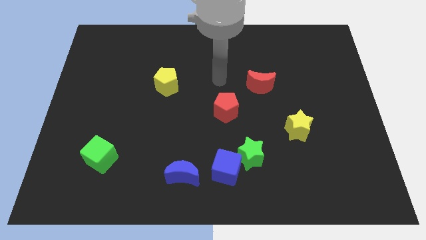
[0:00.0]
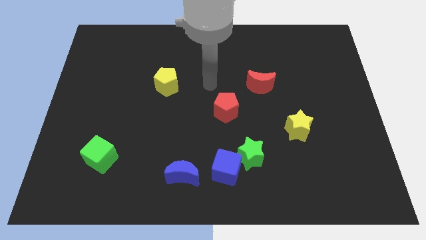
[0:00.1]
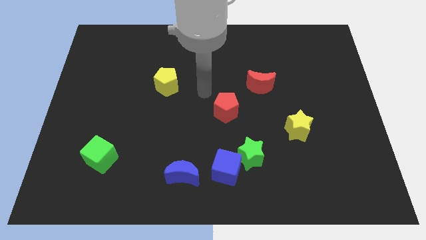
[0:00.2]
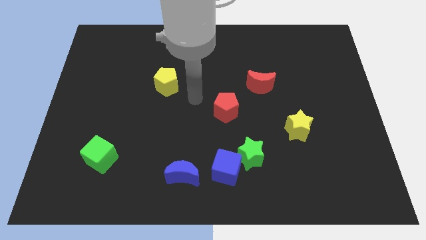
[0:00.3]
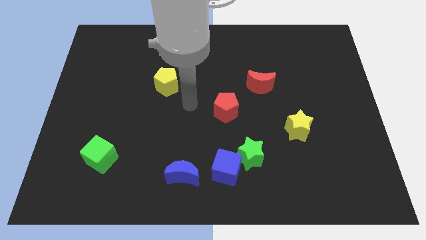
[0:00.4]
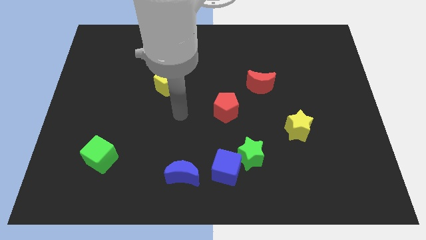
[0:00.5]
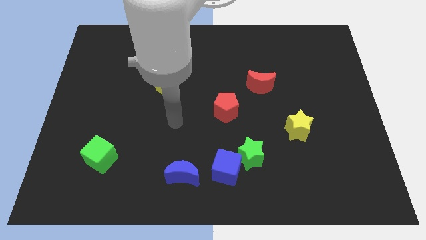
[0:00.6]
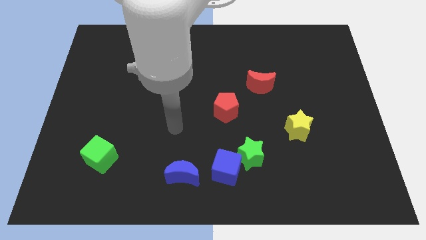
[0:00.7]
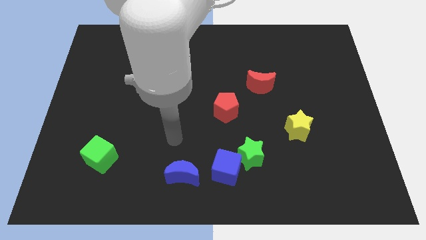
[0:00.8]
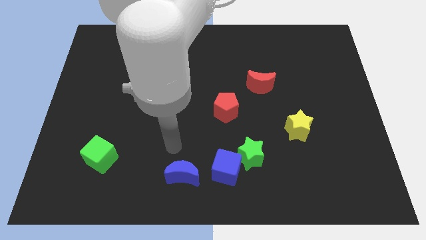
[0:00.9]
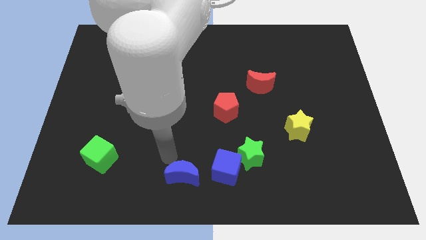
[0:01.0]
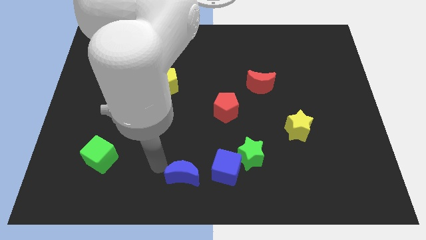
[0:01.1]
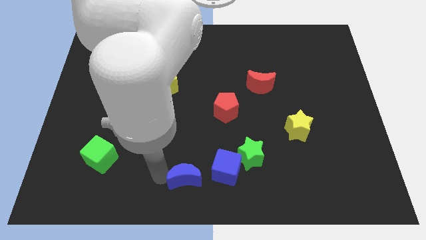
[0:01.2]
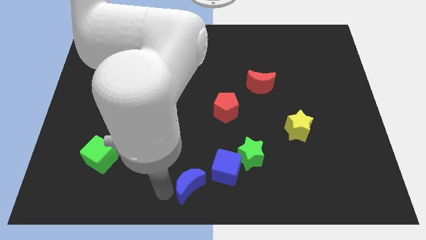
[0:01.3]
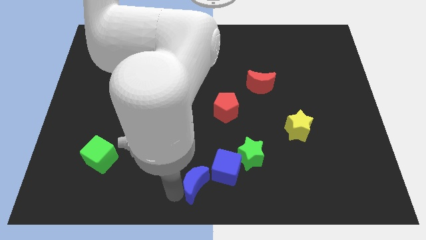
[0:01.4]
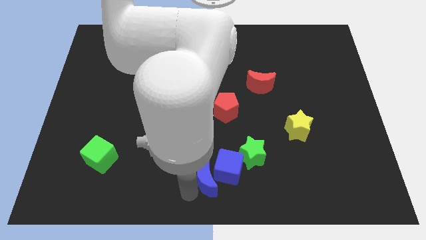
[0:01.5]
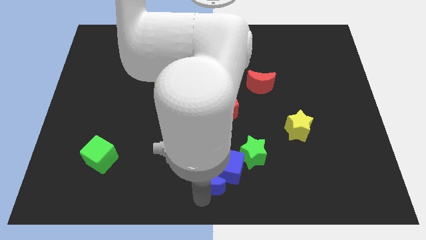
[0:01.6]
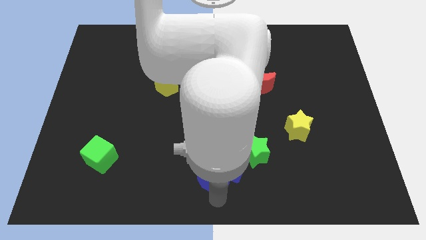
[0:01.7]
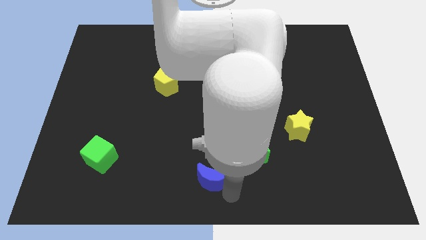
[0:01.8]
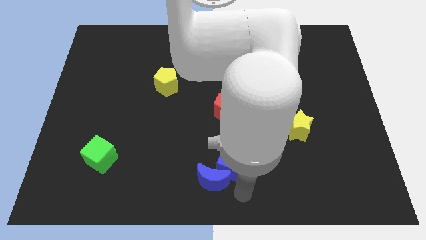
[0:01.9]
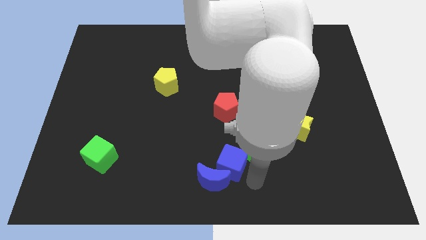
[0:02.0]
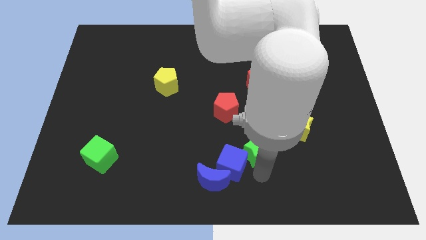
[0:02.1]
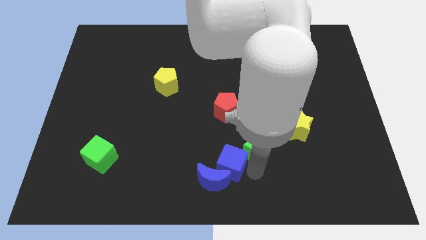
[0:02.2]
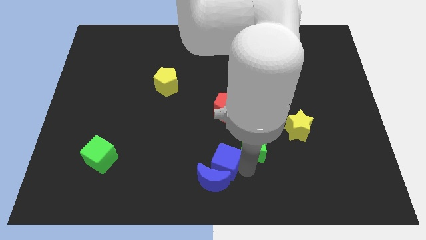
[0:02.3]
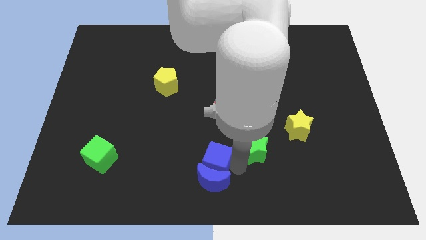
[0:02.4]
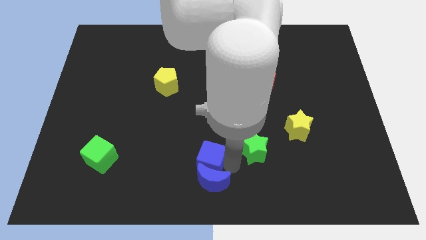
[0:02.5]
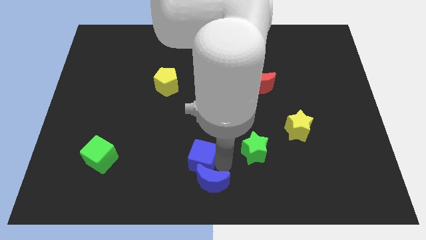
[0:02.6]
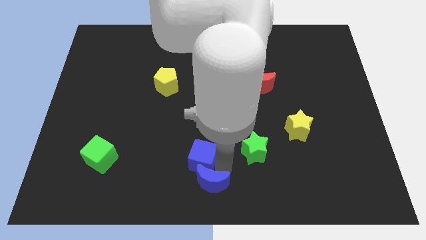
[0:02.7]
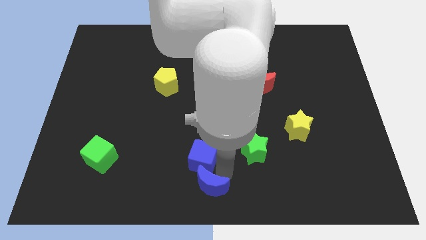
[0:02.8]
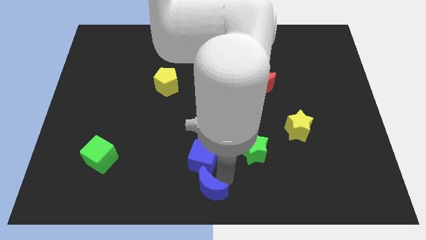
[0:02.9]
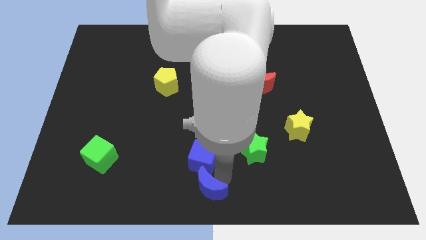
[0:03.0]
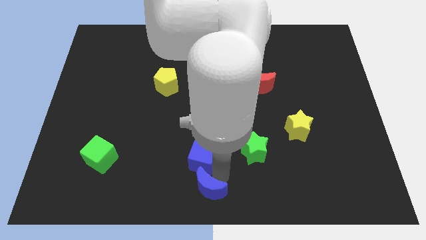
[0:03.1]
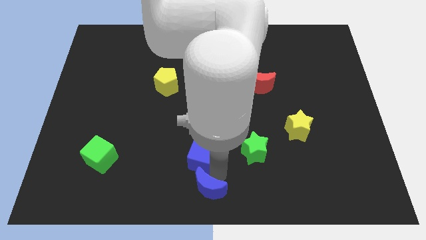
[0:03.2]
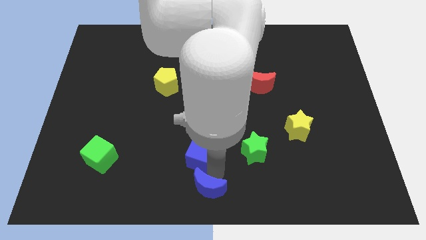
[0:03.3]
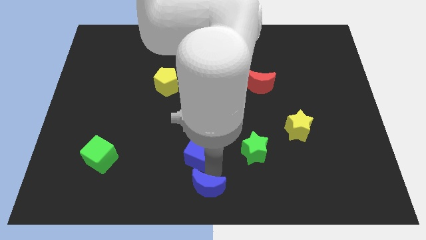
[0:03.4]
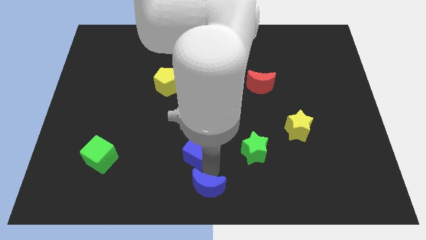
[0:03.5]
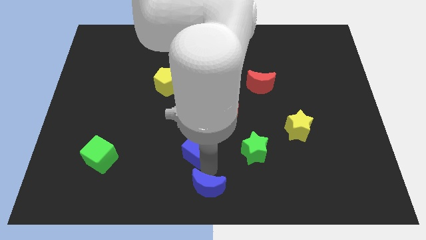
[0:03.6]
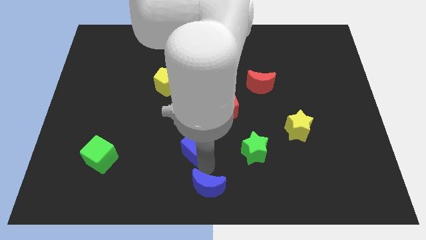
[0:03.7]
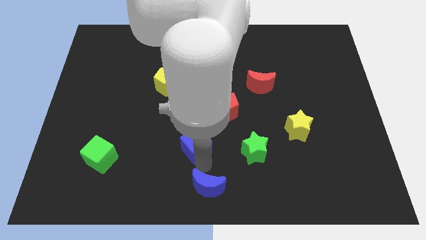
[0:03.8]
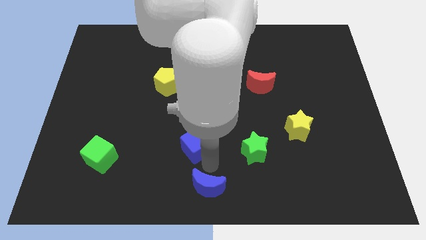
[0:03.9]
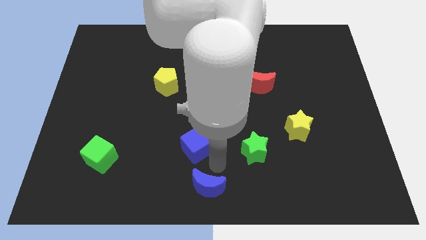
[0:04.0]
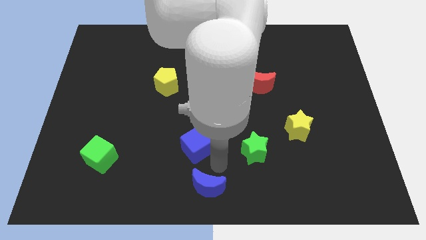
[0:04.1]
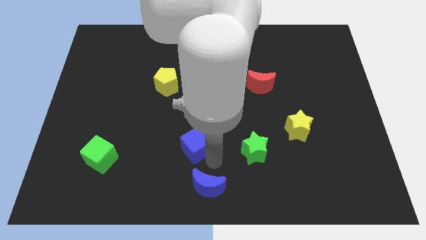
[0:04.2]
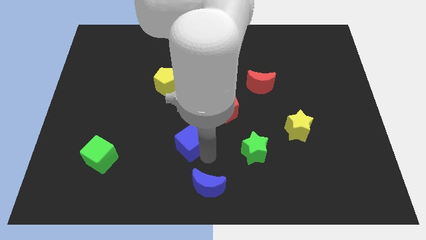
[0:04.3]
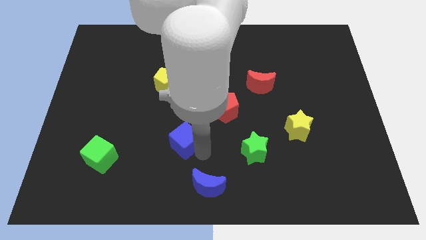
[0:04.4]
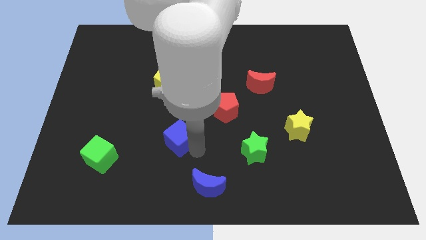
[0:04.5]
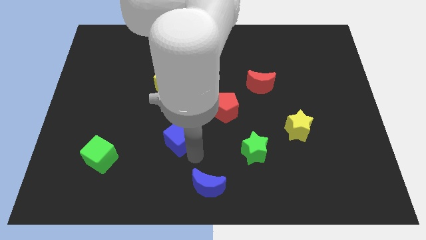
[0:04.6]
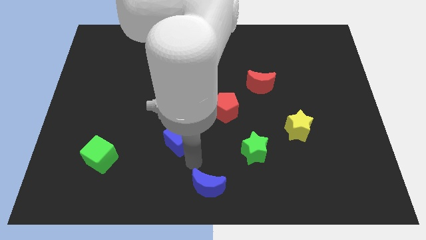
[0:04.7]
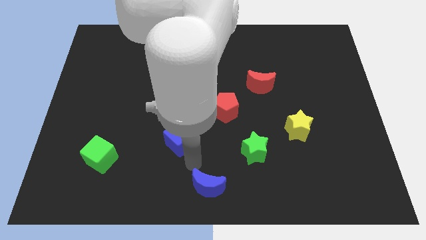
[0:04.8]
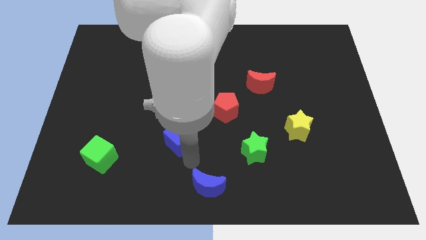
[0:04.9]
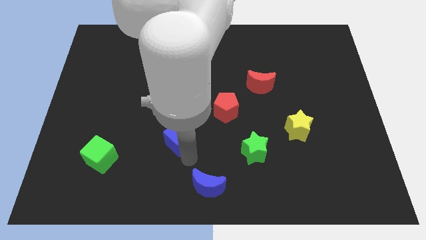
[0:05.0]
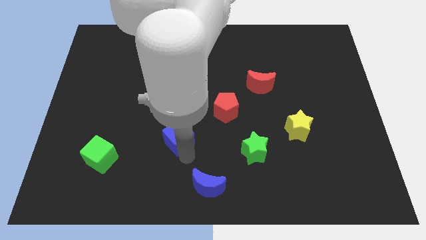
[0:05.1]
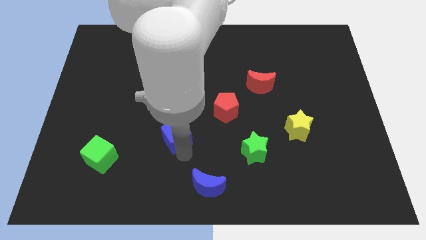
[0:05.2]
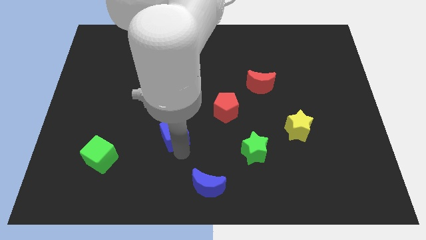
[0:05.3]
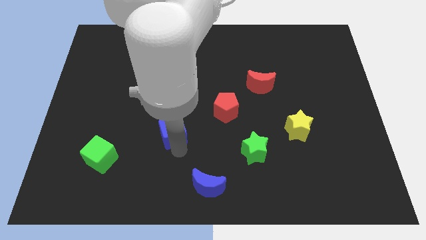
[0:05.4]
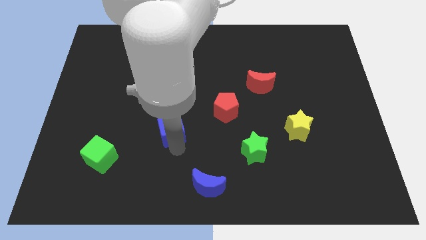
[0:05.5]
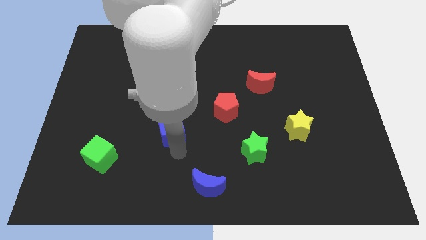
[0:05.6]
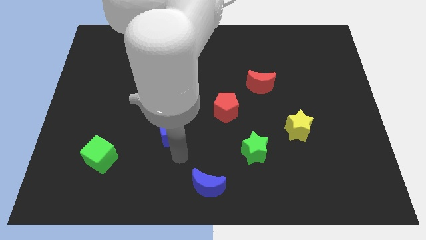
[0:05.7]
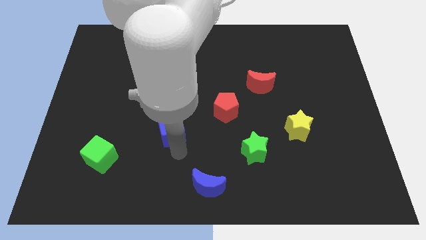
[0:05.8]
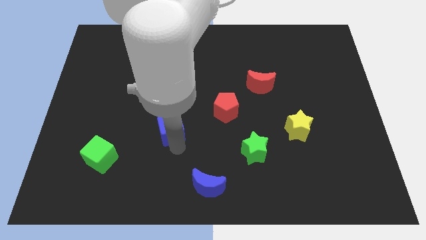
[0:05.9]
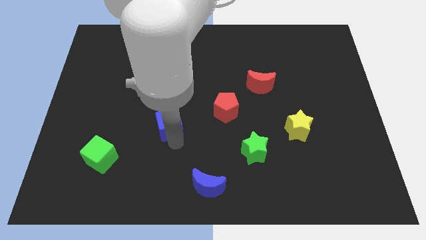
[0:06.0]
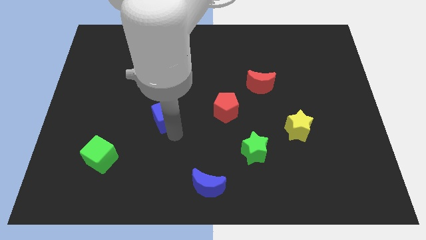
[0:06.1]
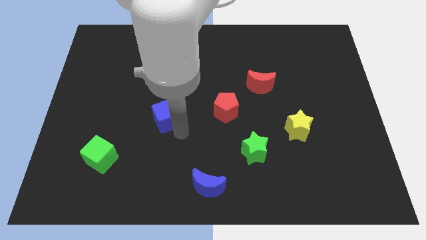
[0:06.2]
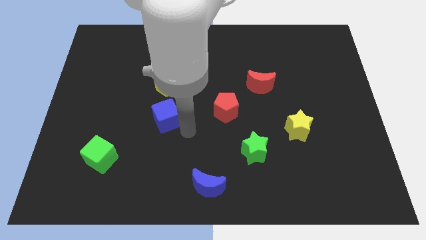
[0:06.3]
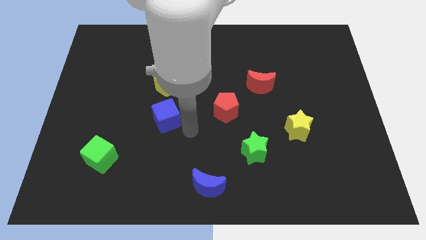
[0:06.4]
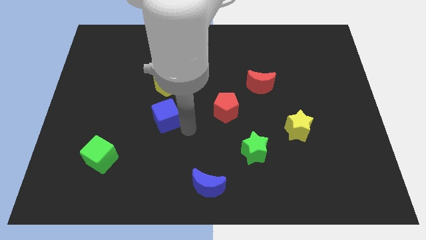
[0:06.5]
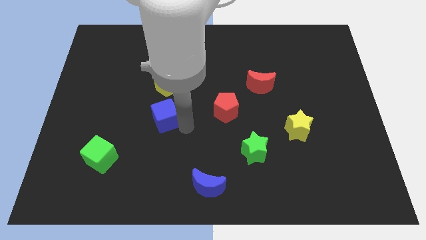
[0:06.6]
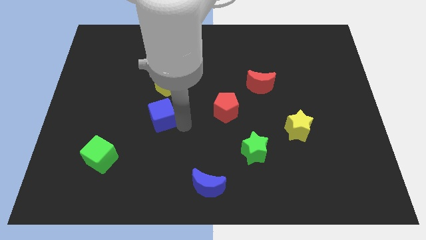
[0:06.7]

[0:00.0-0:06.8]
push the blue cube up and then left

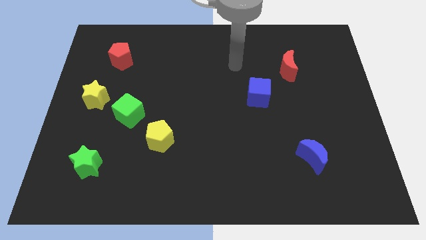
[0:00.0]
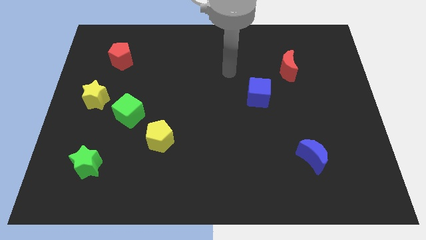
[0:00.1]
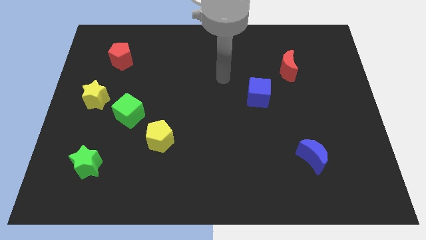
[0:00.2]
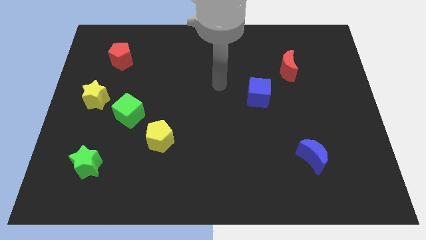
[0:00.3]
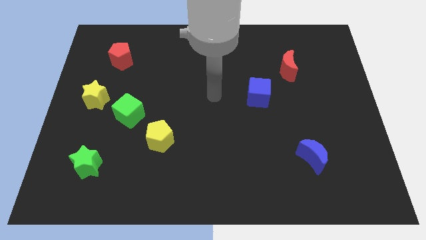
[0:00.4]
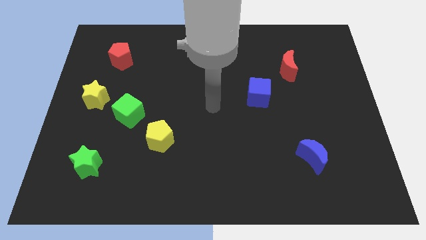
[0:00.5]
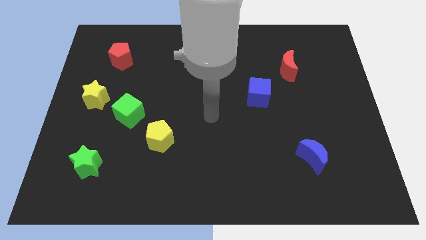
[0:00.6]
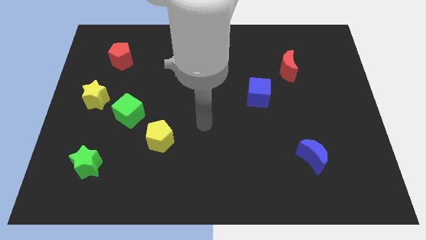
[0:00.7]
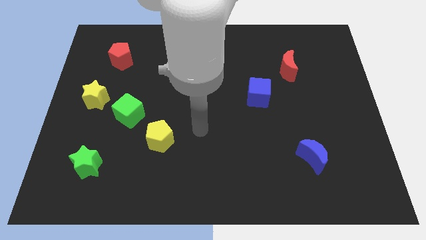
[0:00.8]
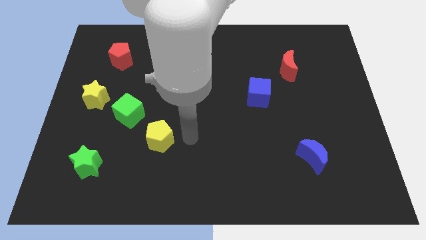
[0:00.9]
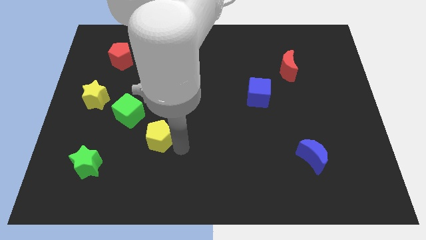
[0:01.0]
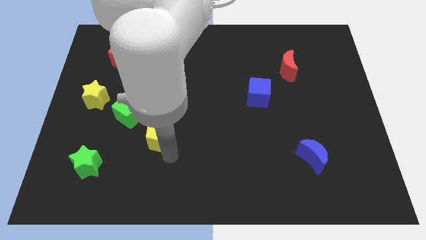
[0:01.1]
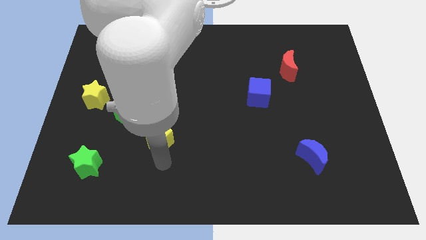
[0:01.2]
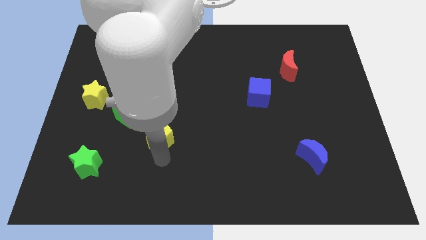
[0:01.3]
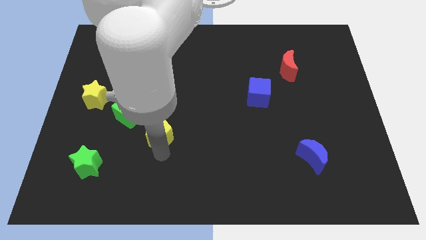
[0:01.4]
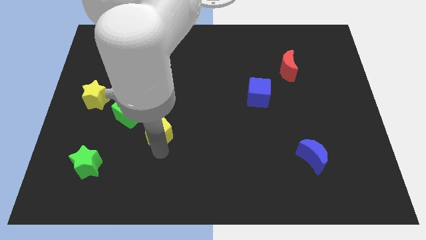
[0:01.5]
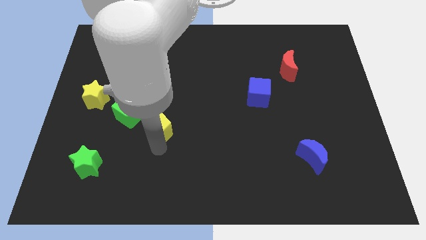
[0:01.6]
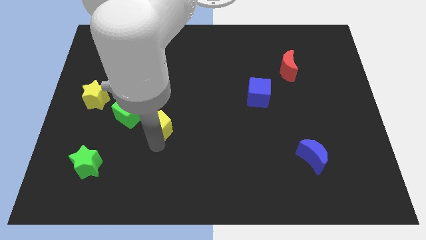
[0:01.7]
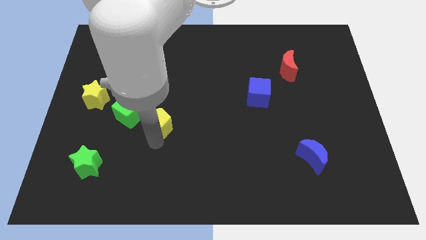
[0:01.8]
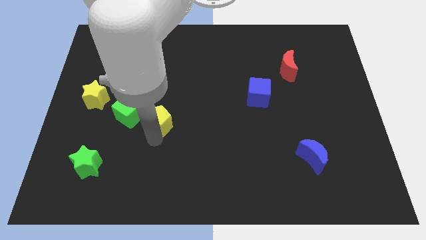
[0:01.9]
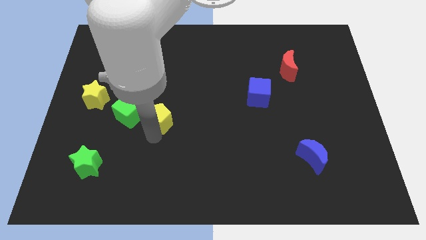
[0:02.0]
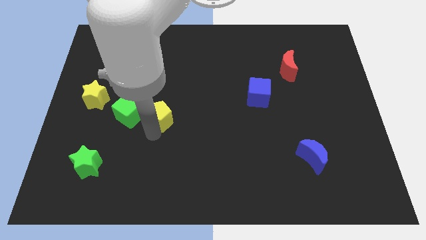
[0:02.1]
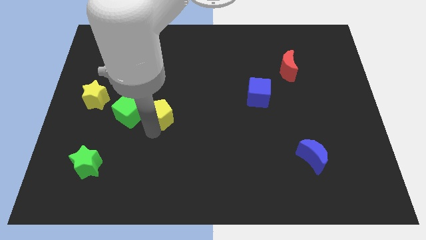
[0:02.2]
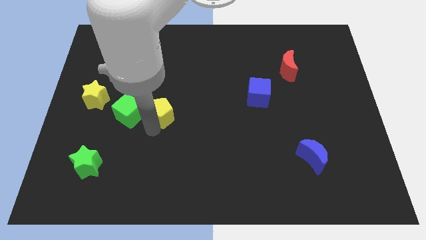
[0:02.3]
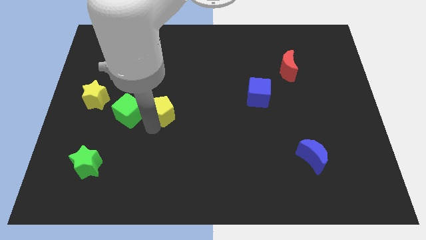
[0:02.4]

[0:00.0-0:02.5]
slightly slide the yellow pentagon upwards
